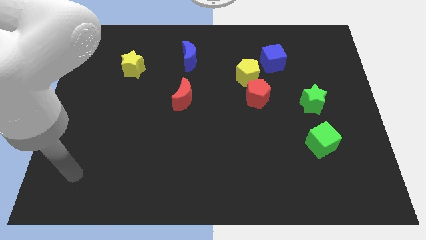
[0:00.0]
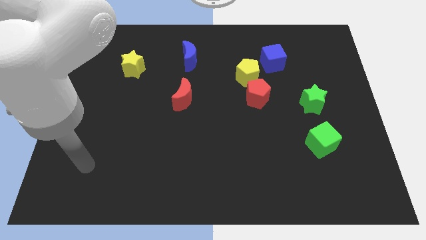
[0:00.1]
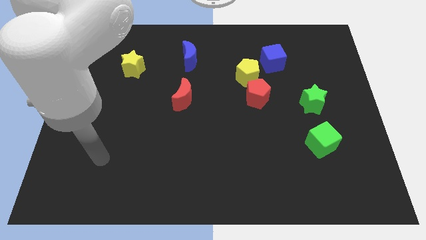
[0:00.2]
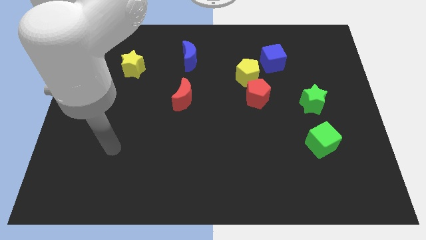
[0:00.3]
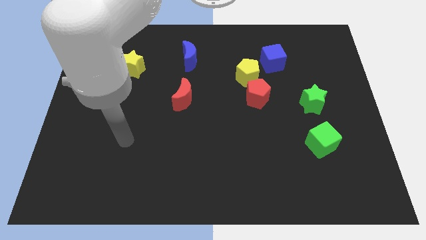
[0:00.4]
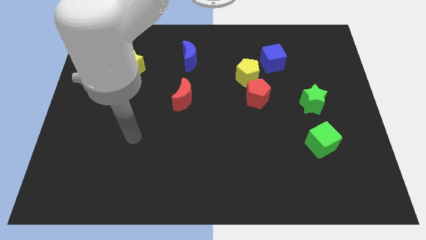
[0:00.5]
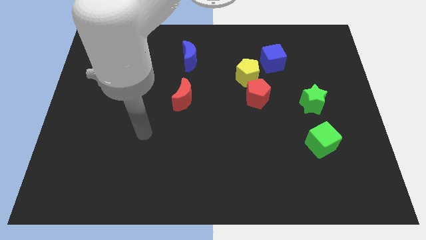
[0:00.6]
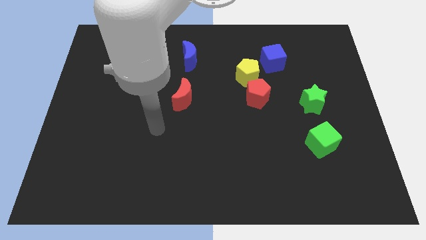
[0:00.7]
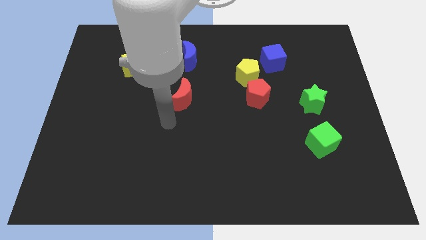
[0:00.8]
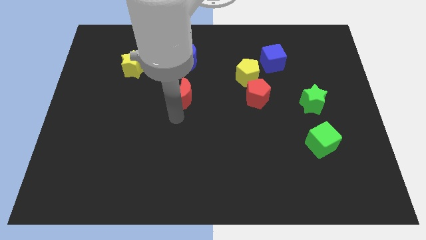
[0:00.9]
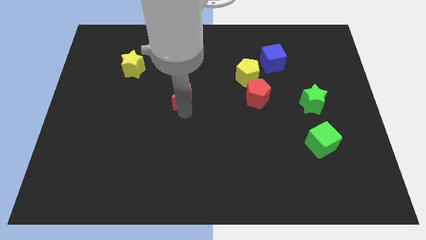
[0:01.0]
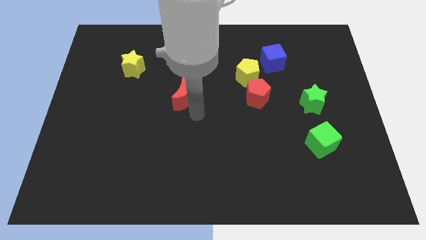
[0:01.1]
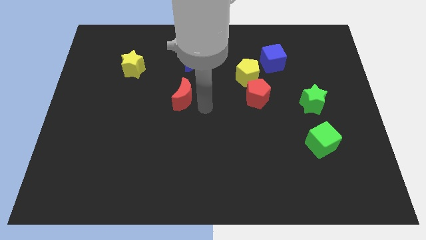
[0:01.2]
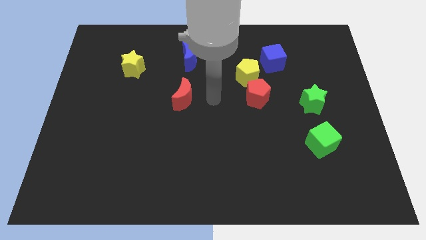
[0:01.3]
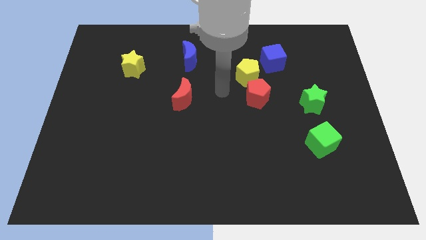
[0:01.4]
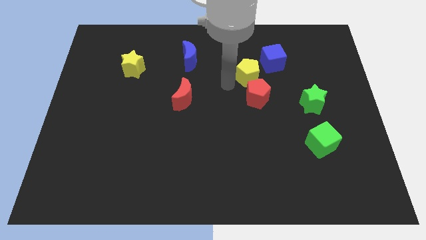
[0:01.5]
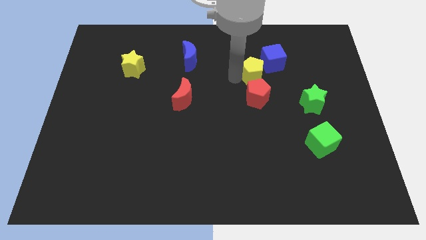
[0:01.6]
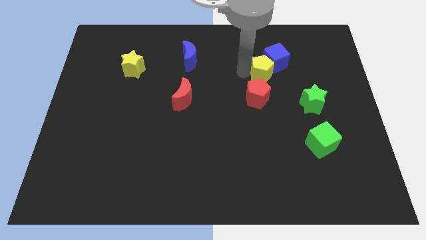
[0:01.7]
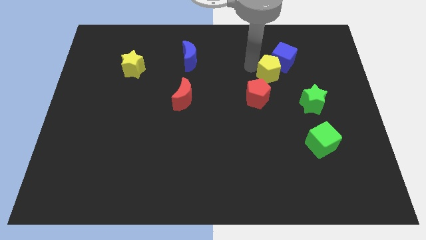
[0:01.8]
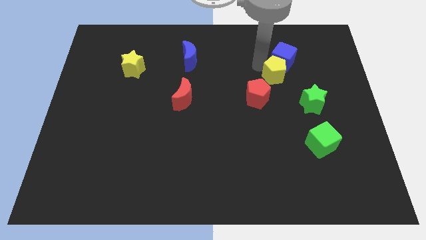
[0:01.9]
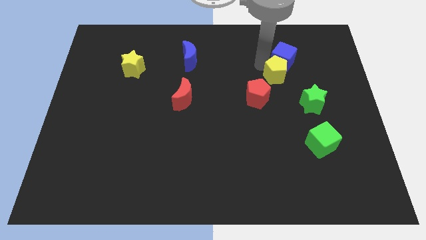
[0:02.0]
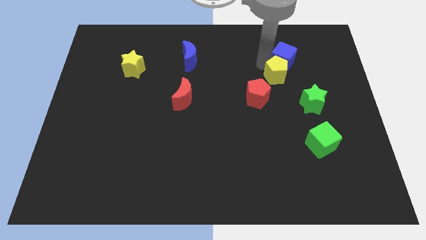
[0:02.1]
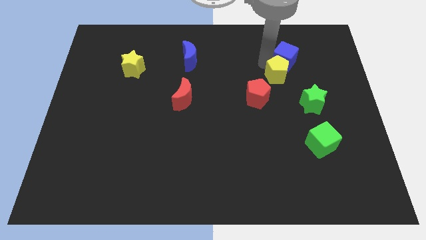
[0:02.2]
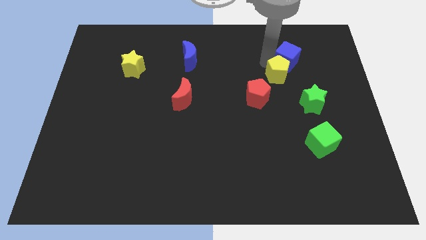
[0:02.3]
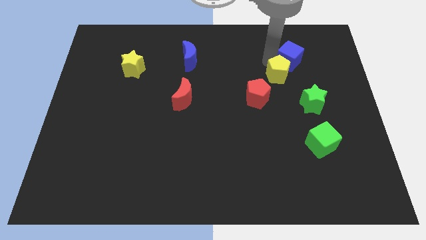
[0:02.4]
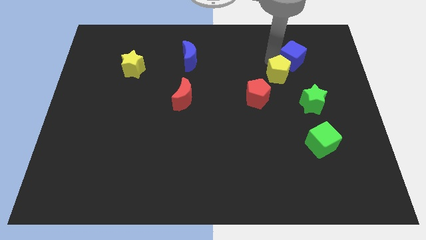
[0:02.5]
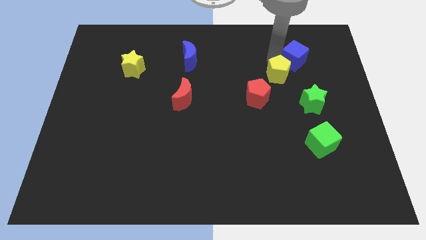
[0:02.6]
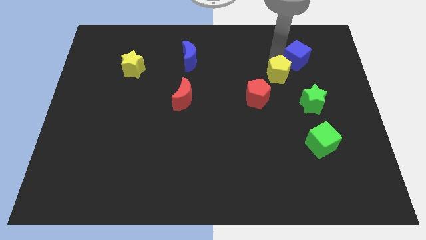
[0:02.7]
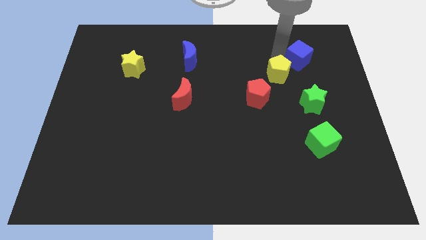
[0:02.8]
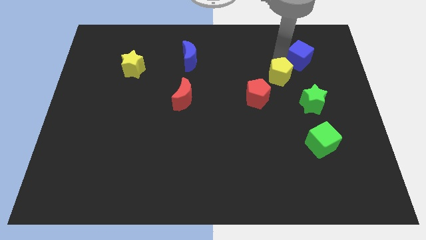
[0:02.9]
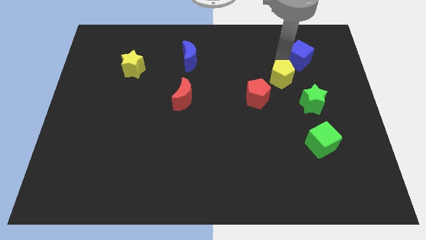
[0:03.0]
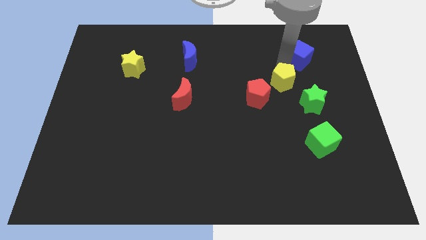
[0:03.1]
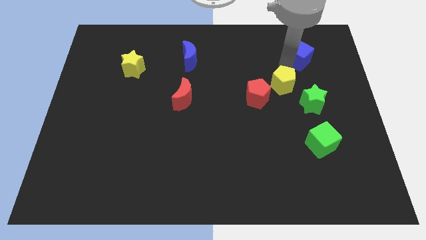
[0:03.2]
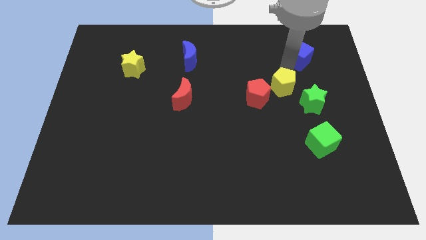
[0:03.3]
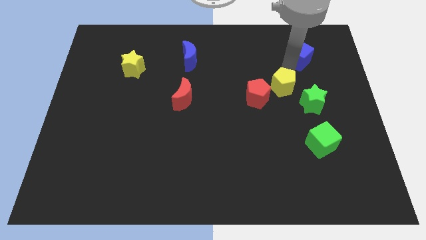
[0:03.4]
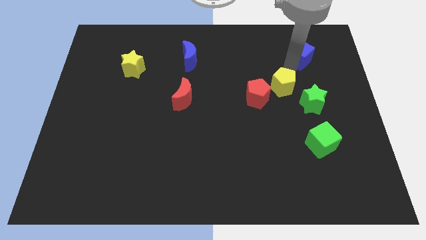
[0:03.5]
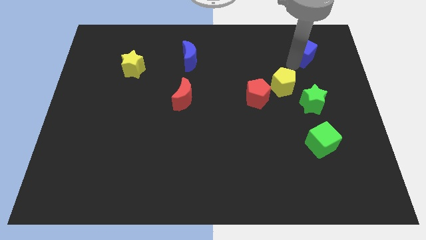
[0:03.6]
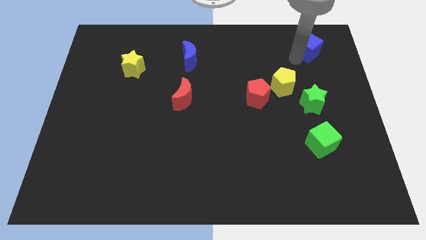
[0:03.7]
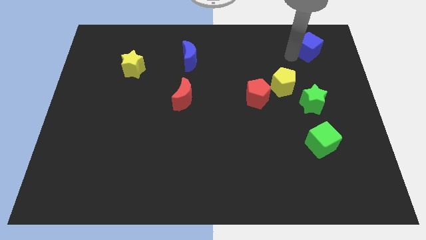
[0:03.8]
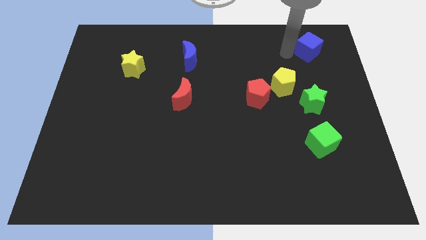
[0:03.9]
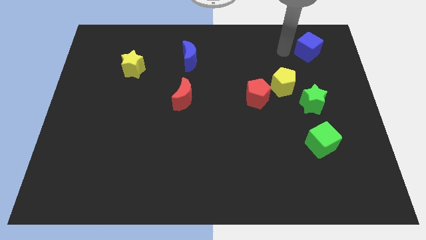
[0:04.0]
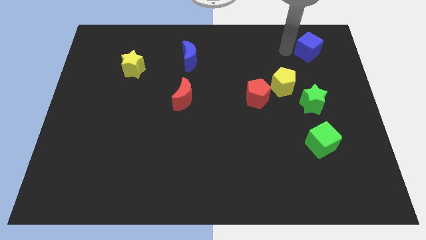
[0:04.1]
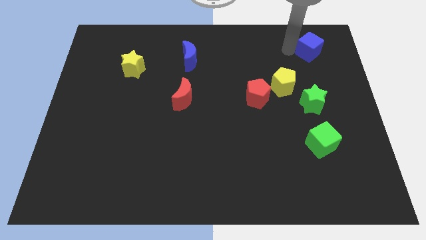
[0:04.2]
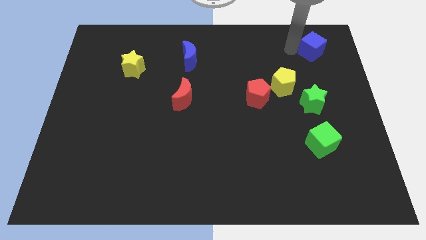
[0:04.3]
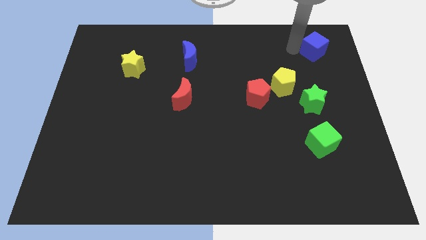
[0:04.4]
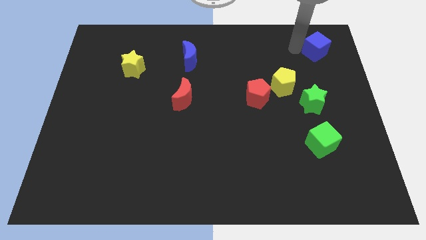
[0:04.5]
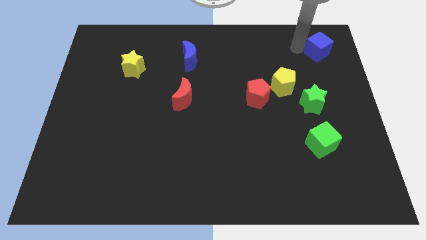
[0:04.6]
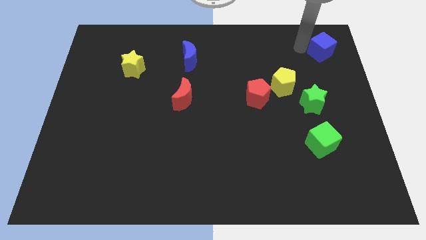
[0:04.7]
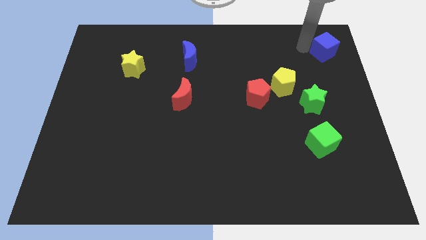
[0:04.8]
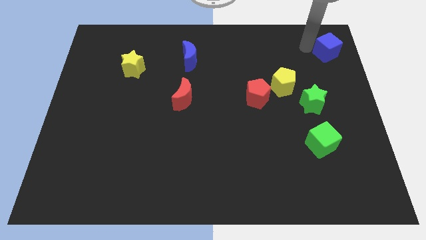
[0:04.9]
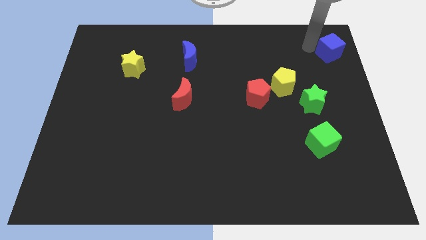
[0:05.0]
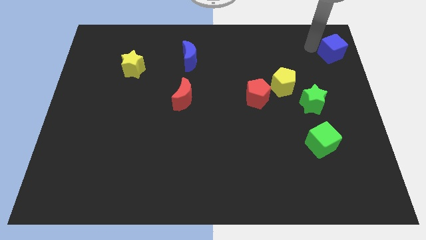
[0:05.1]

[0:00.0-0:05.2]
slide the blue cube to the upper right corner

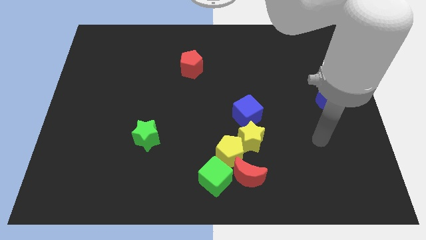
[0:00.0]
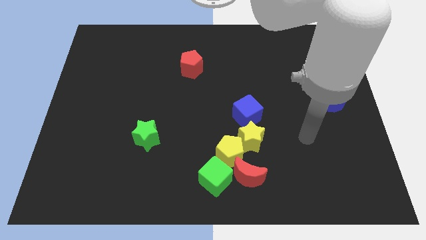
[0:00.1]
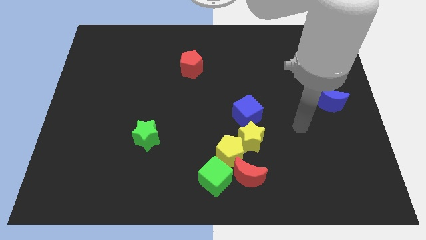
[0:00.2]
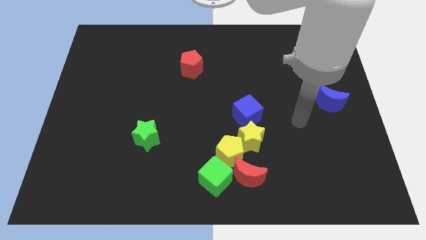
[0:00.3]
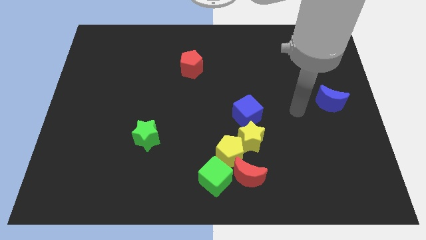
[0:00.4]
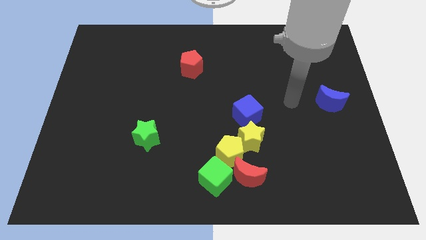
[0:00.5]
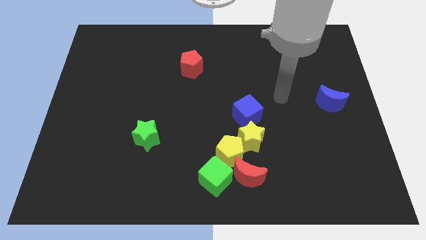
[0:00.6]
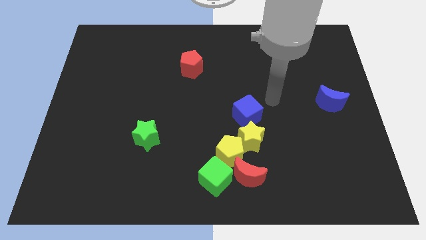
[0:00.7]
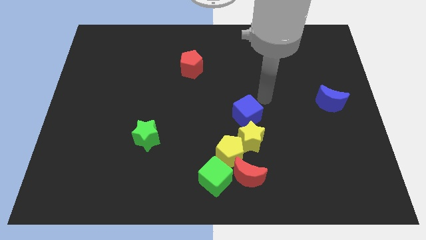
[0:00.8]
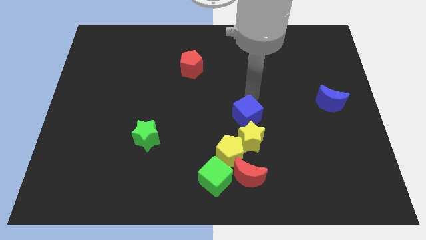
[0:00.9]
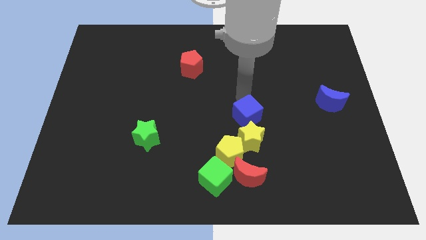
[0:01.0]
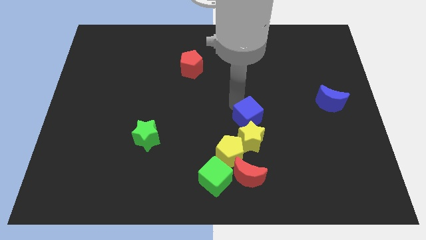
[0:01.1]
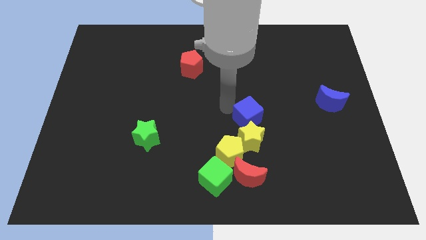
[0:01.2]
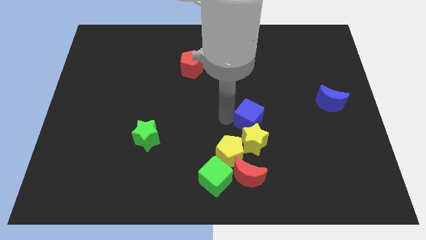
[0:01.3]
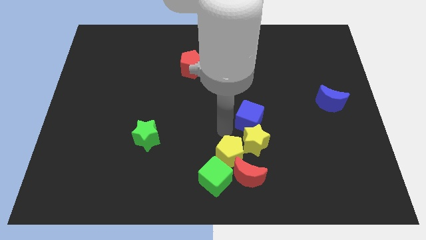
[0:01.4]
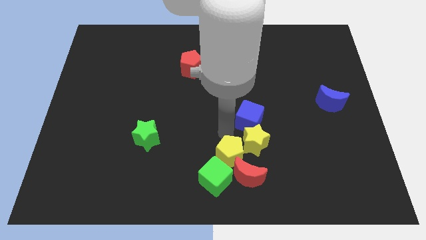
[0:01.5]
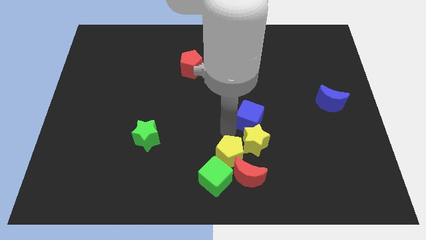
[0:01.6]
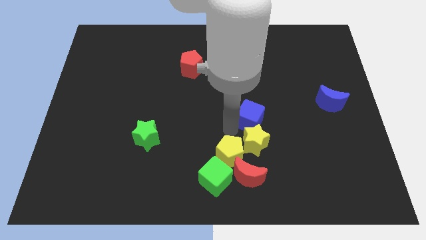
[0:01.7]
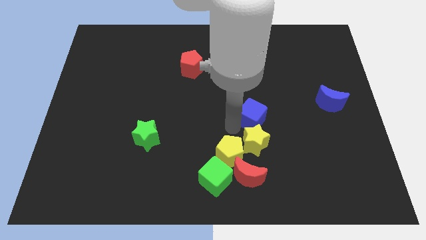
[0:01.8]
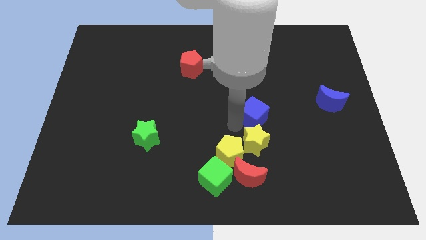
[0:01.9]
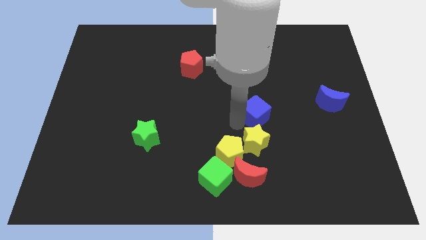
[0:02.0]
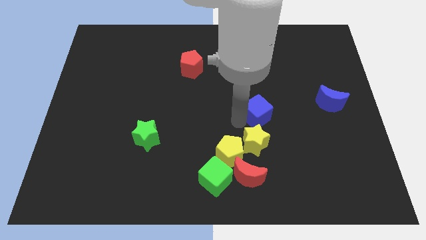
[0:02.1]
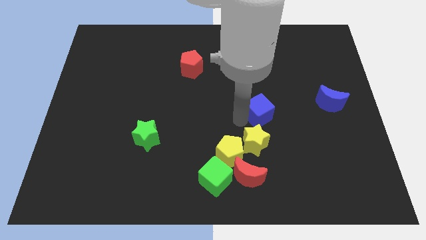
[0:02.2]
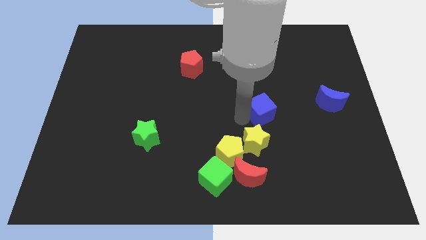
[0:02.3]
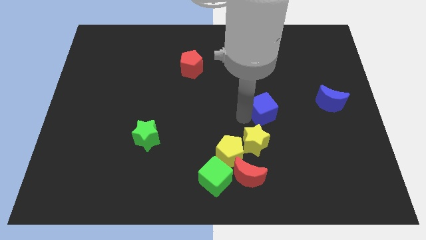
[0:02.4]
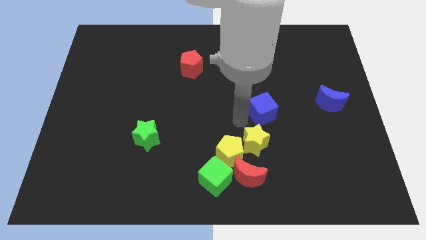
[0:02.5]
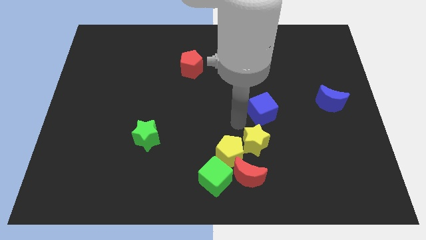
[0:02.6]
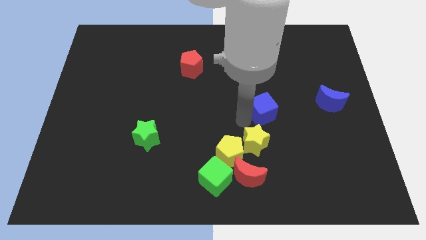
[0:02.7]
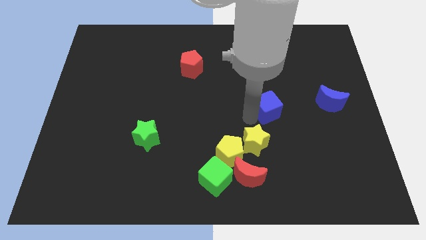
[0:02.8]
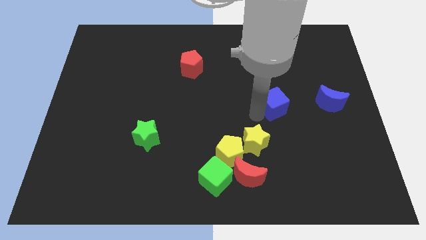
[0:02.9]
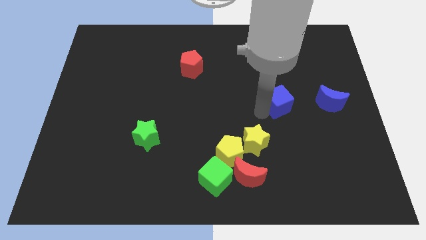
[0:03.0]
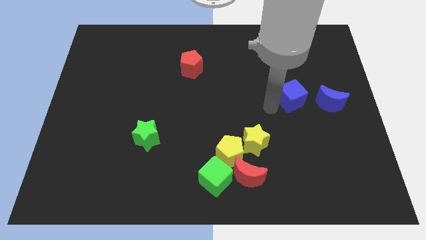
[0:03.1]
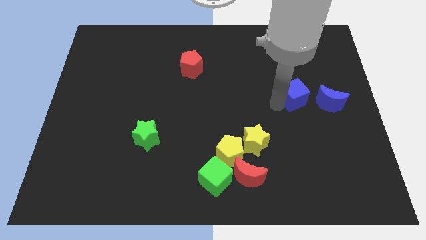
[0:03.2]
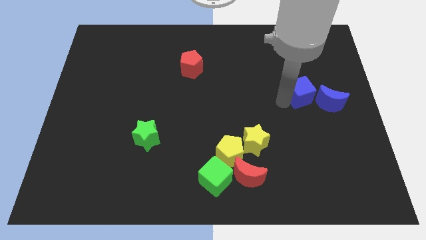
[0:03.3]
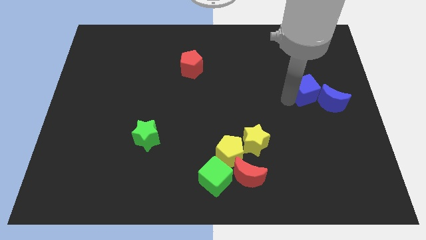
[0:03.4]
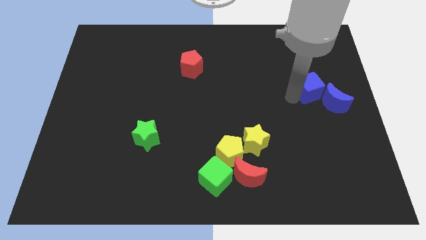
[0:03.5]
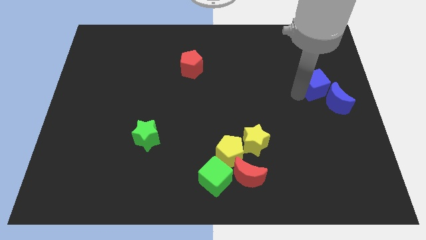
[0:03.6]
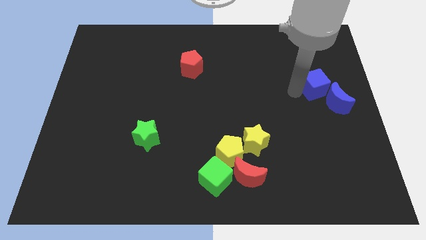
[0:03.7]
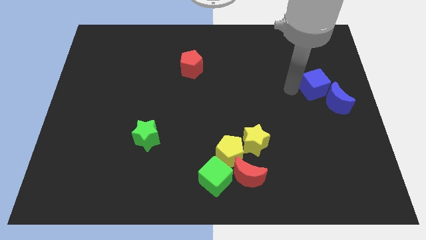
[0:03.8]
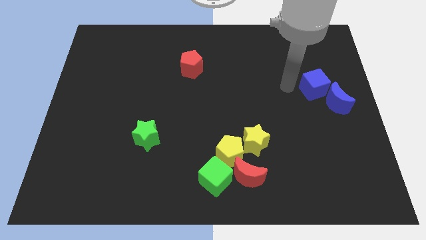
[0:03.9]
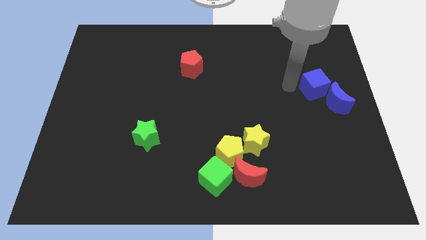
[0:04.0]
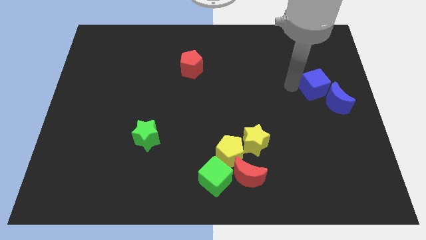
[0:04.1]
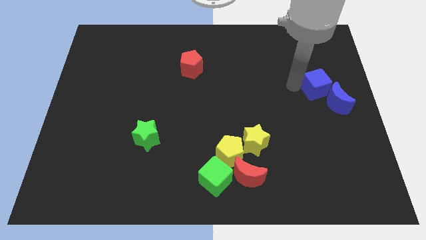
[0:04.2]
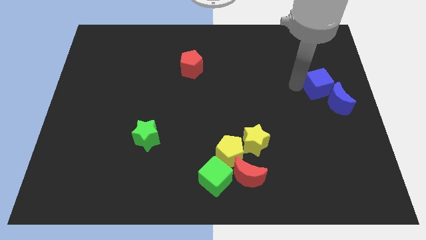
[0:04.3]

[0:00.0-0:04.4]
slide the blue cube to the right side of the board
